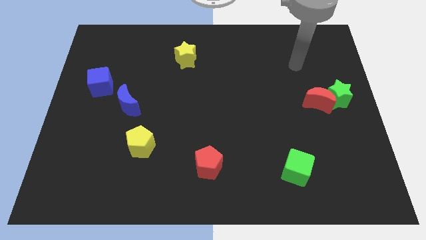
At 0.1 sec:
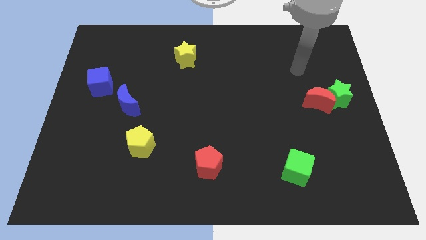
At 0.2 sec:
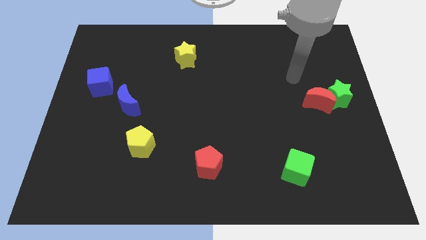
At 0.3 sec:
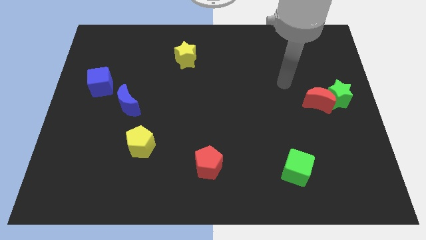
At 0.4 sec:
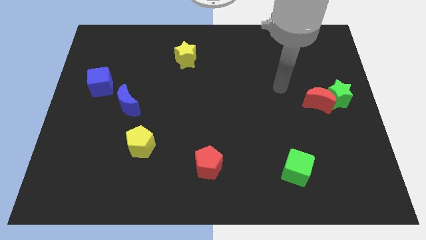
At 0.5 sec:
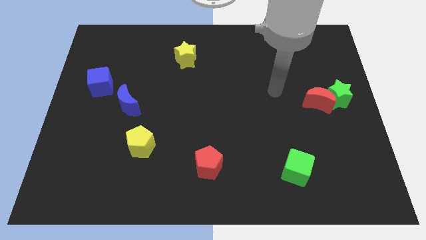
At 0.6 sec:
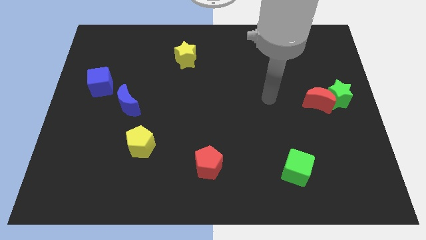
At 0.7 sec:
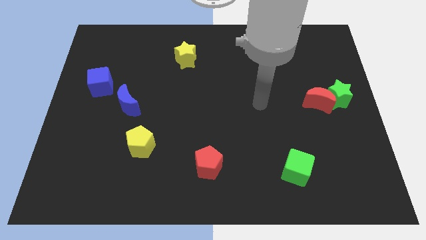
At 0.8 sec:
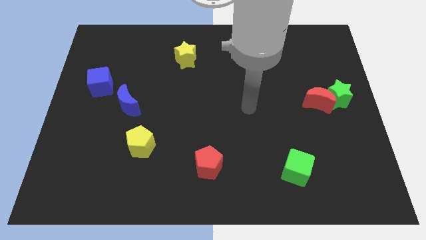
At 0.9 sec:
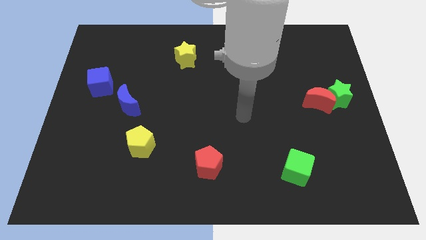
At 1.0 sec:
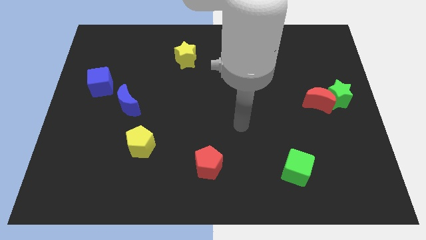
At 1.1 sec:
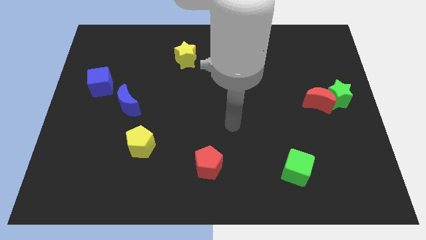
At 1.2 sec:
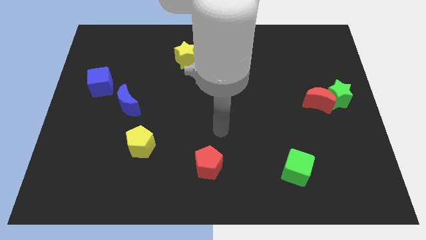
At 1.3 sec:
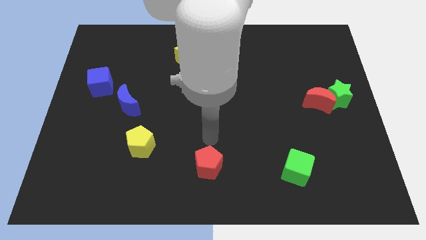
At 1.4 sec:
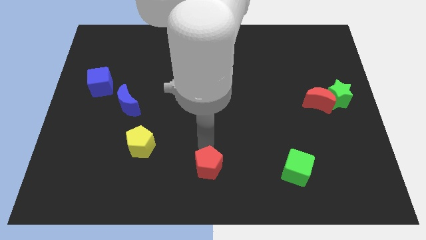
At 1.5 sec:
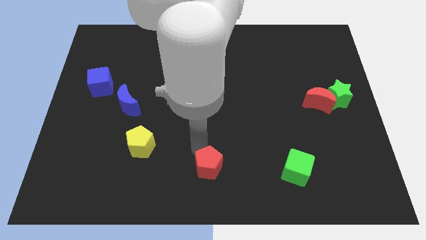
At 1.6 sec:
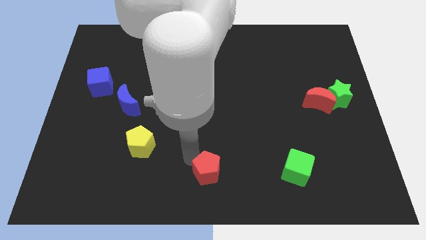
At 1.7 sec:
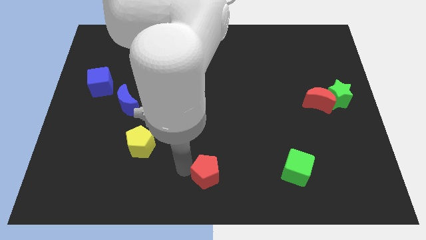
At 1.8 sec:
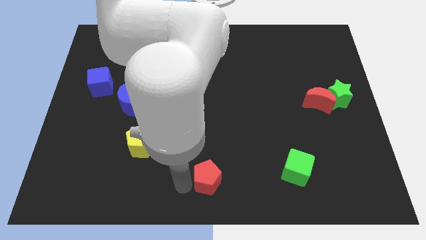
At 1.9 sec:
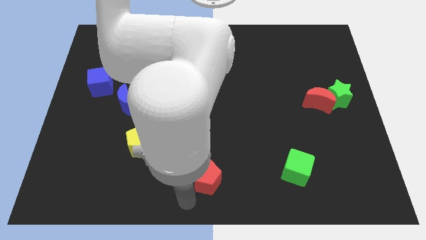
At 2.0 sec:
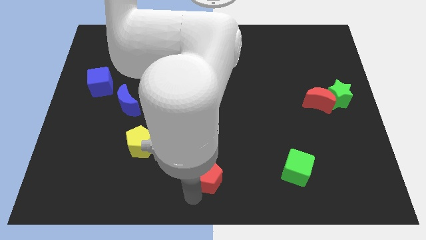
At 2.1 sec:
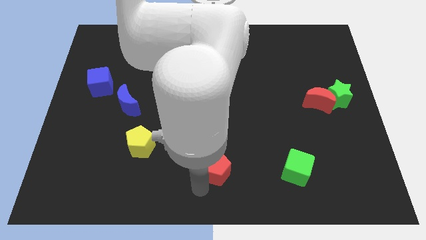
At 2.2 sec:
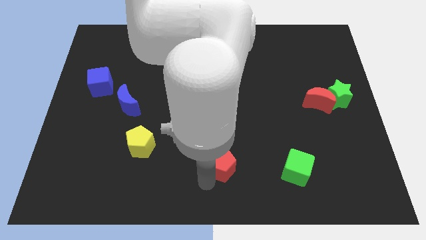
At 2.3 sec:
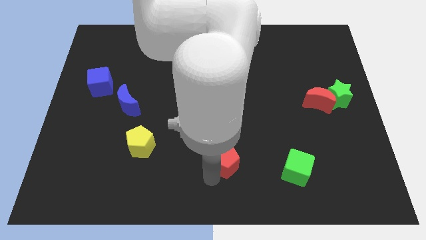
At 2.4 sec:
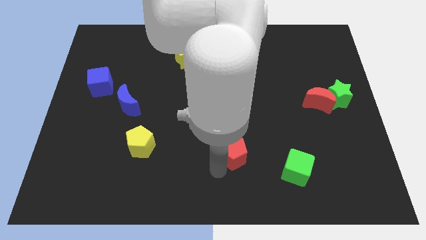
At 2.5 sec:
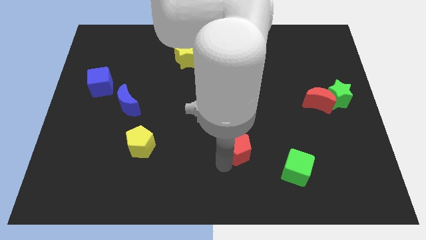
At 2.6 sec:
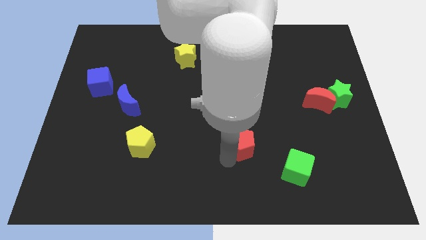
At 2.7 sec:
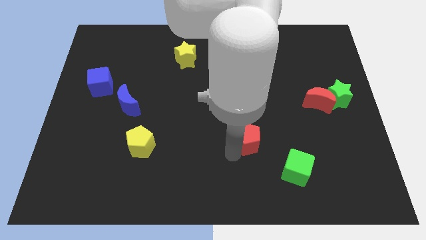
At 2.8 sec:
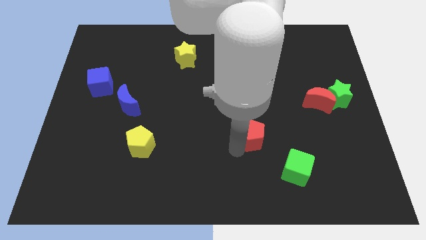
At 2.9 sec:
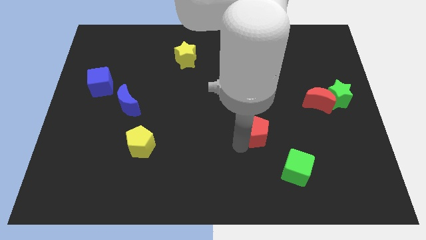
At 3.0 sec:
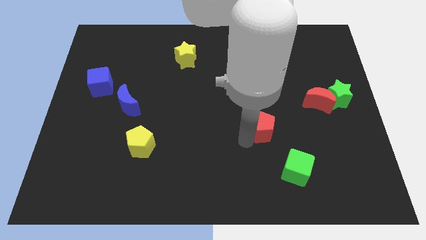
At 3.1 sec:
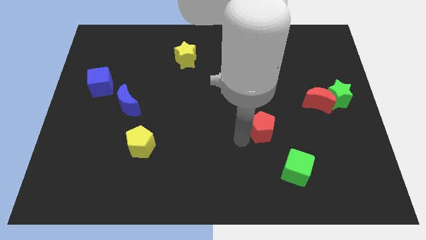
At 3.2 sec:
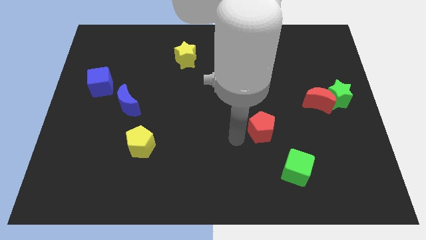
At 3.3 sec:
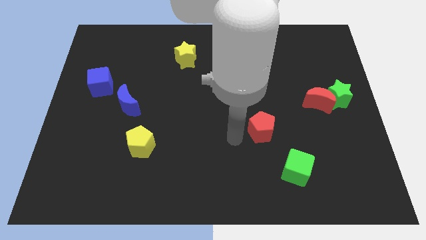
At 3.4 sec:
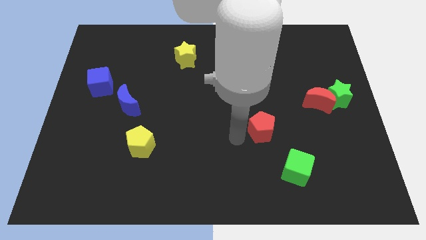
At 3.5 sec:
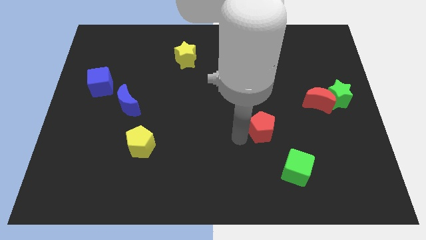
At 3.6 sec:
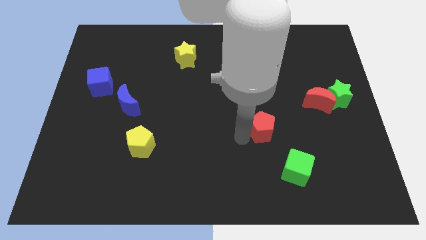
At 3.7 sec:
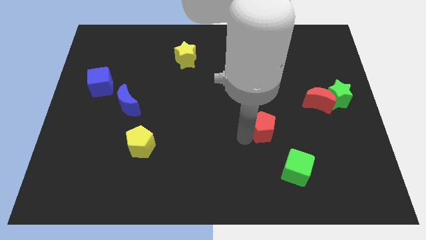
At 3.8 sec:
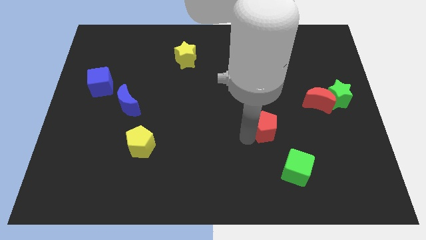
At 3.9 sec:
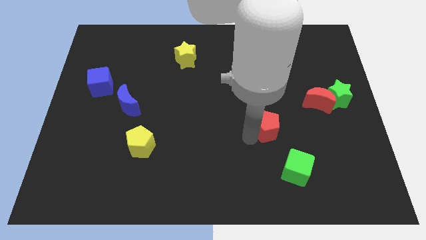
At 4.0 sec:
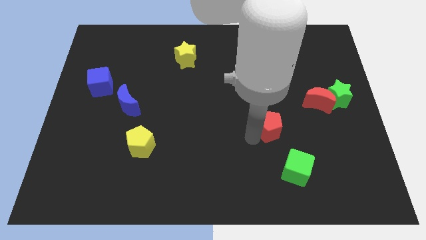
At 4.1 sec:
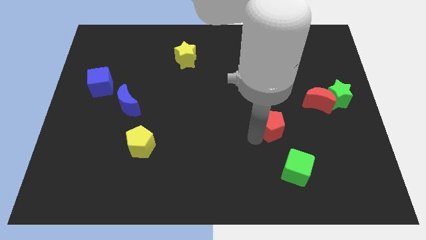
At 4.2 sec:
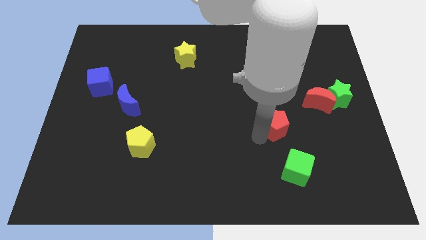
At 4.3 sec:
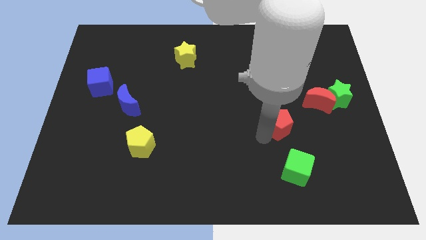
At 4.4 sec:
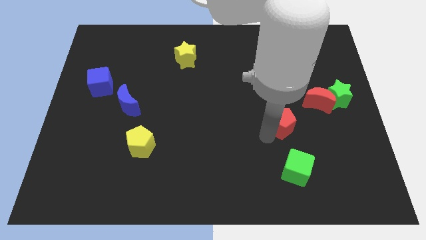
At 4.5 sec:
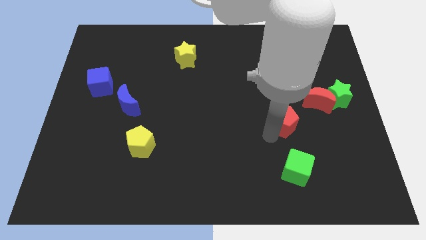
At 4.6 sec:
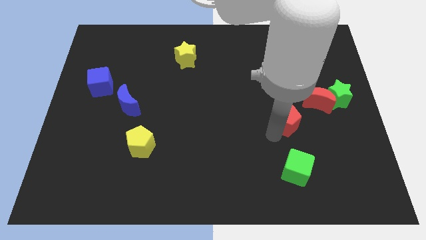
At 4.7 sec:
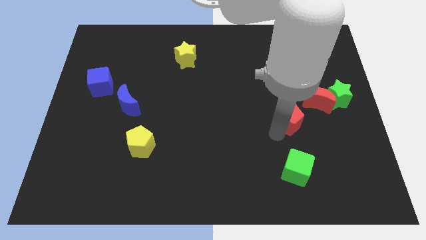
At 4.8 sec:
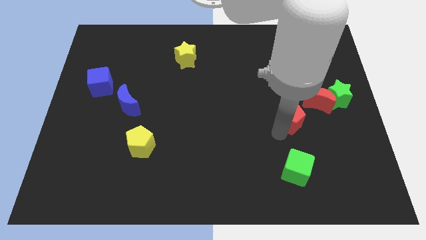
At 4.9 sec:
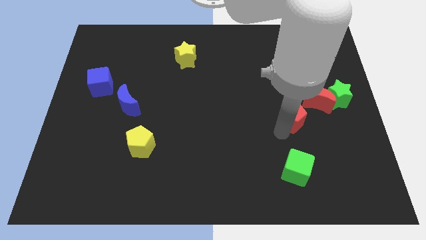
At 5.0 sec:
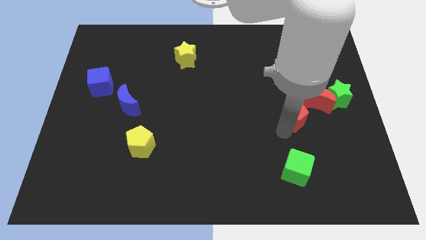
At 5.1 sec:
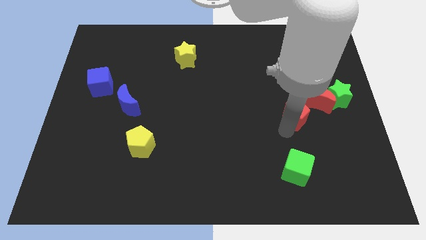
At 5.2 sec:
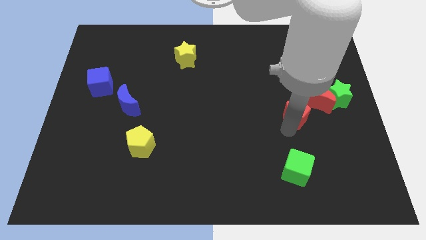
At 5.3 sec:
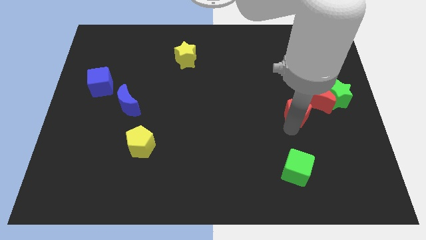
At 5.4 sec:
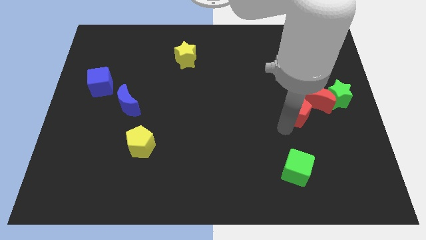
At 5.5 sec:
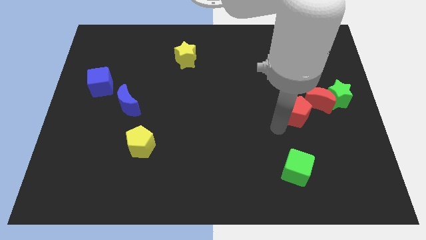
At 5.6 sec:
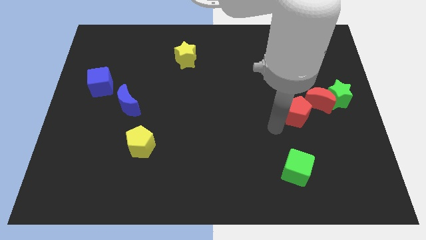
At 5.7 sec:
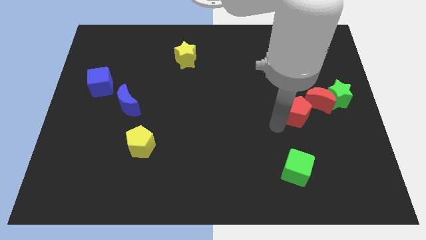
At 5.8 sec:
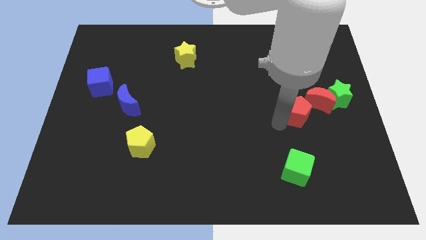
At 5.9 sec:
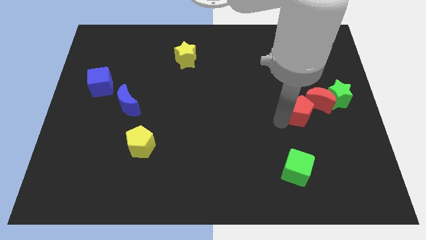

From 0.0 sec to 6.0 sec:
push the red pentagon towards the red moon

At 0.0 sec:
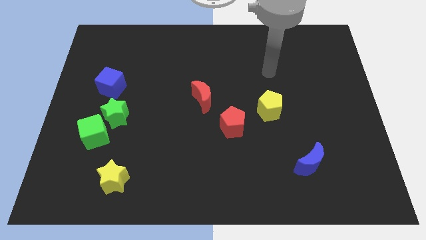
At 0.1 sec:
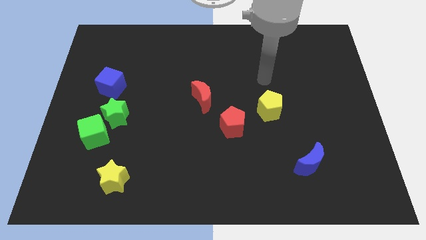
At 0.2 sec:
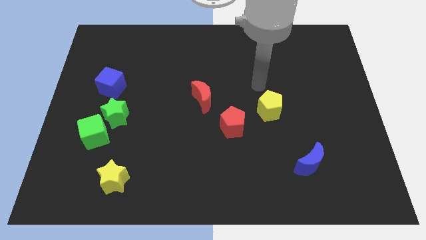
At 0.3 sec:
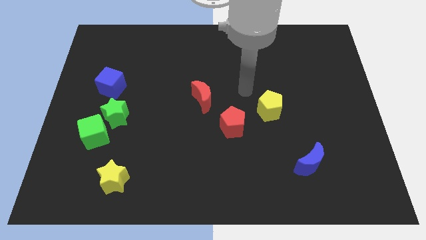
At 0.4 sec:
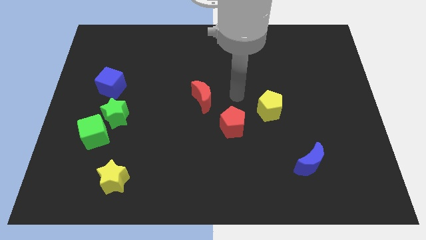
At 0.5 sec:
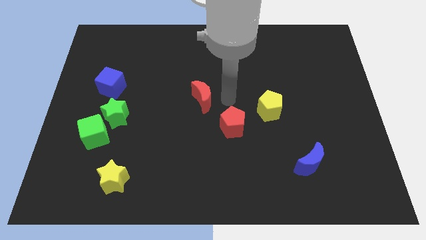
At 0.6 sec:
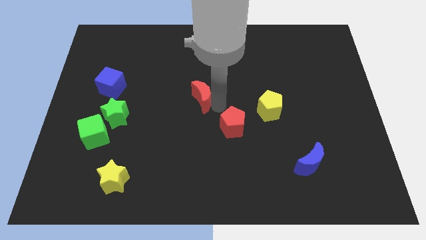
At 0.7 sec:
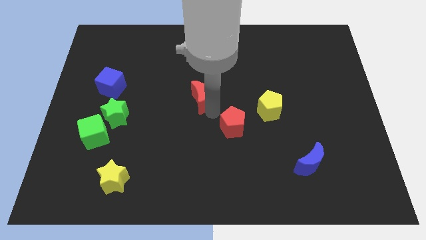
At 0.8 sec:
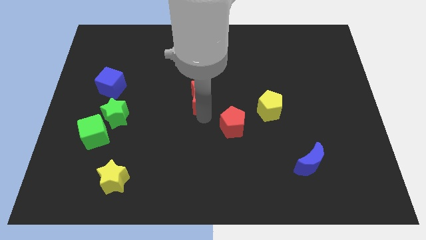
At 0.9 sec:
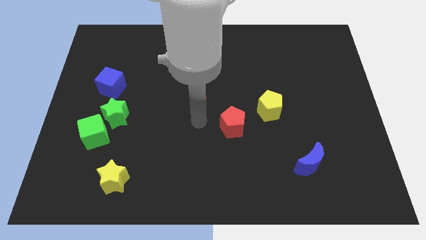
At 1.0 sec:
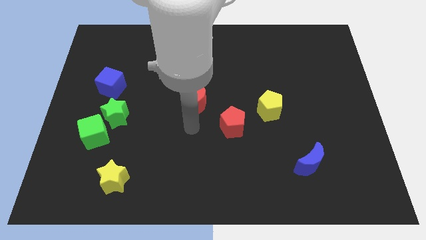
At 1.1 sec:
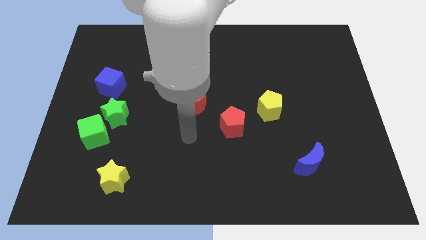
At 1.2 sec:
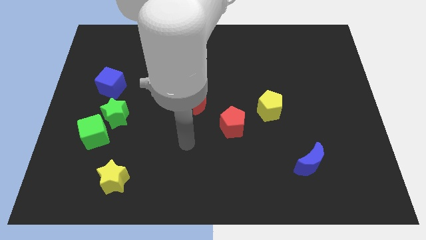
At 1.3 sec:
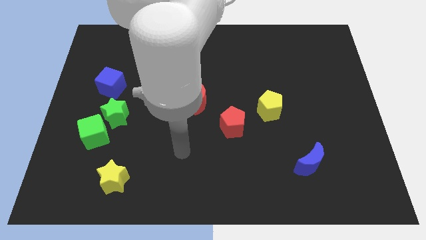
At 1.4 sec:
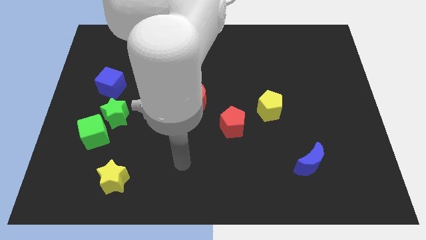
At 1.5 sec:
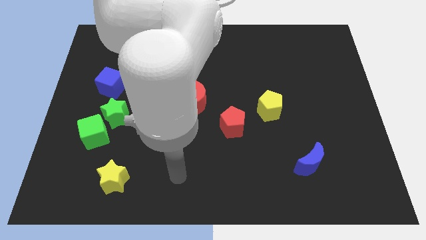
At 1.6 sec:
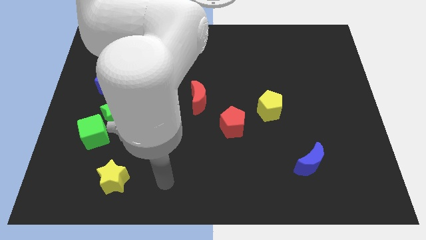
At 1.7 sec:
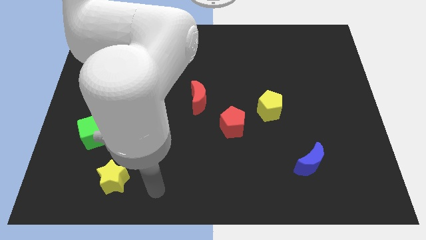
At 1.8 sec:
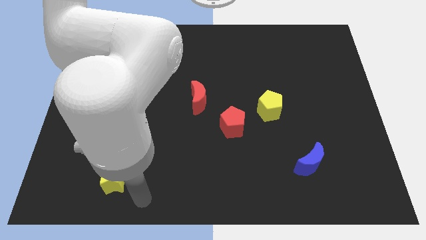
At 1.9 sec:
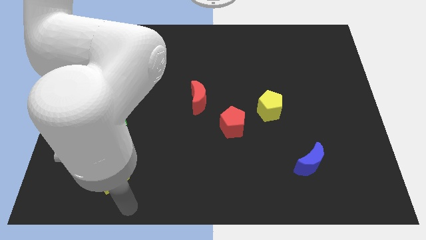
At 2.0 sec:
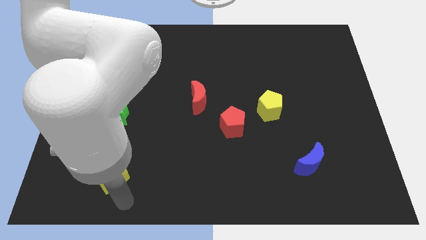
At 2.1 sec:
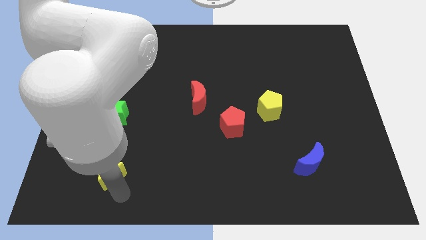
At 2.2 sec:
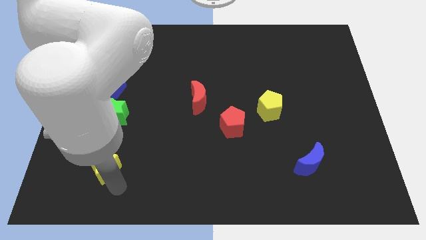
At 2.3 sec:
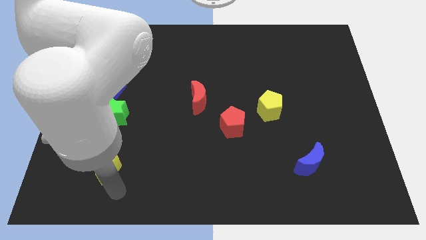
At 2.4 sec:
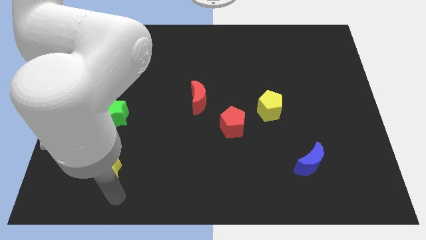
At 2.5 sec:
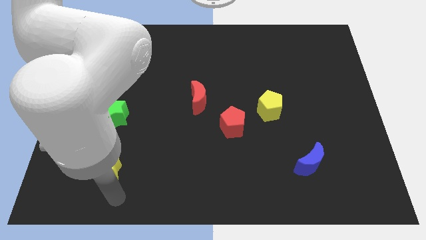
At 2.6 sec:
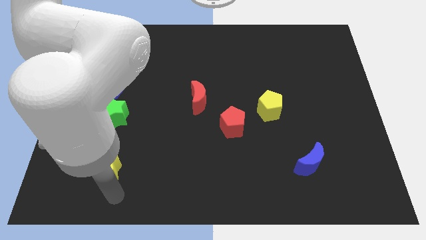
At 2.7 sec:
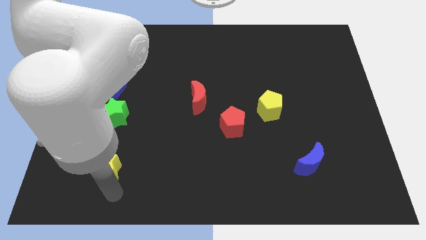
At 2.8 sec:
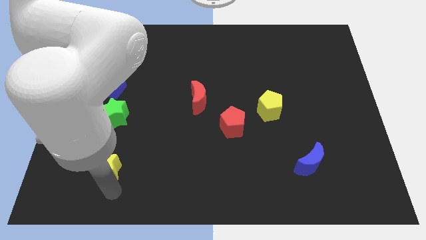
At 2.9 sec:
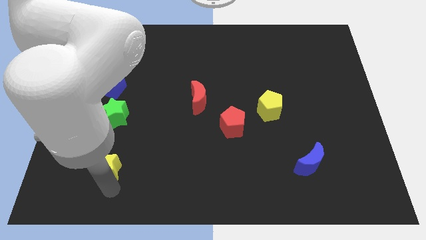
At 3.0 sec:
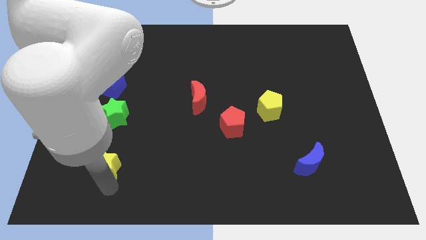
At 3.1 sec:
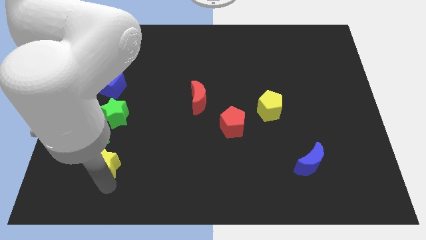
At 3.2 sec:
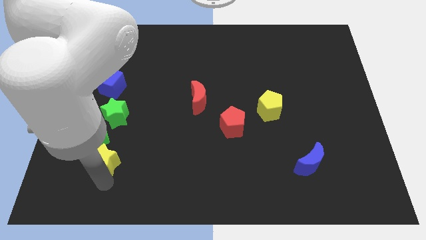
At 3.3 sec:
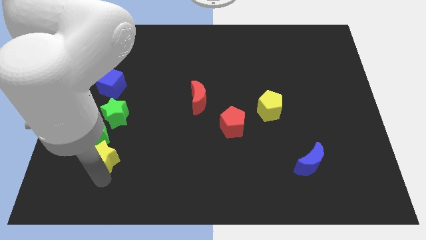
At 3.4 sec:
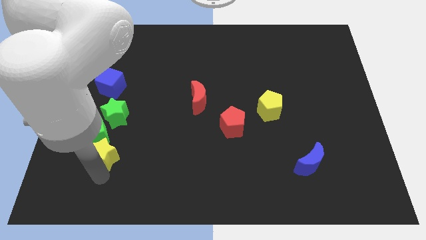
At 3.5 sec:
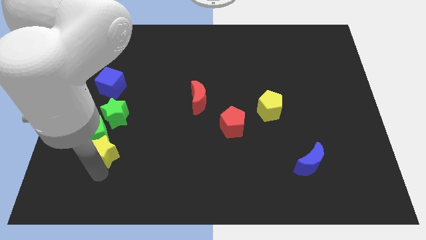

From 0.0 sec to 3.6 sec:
move the yellow star close to the green cube
